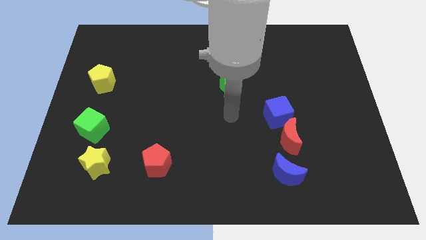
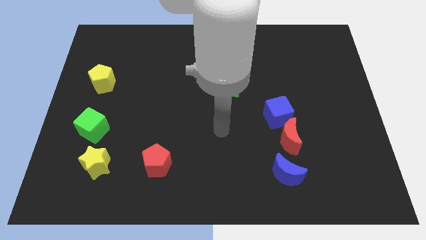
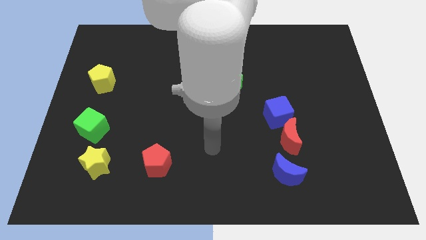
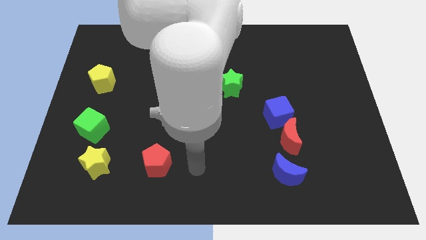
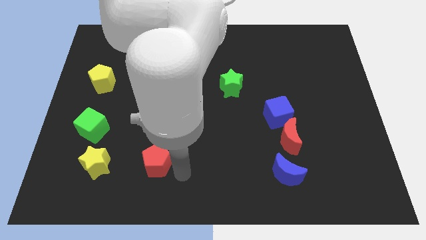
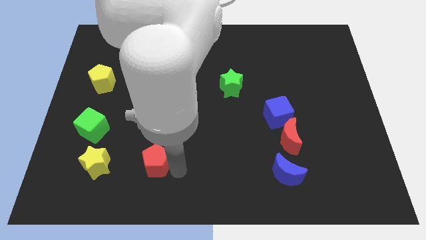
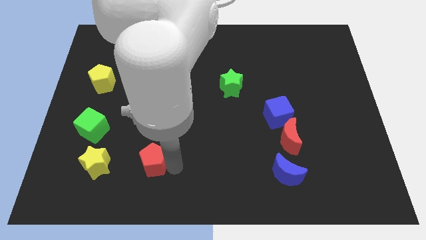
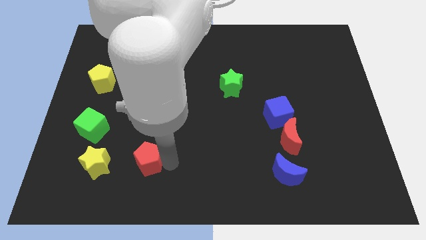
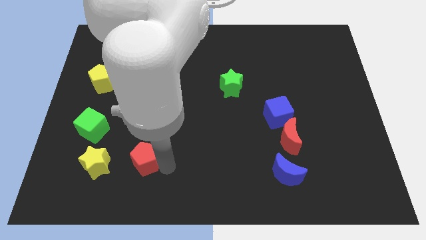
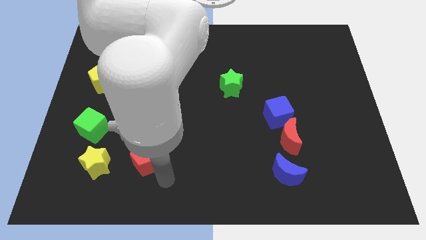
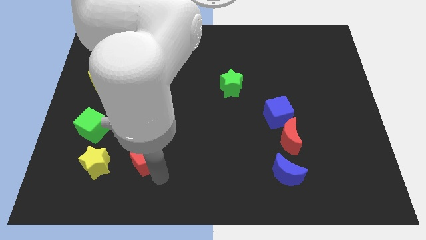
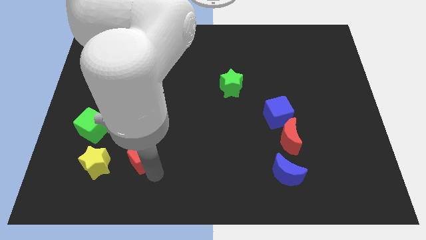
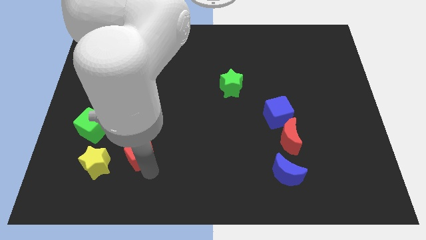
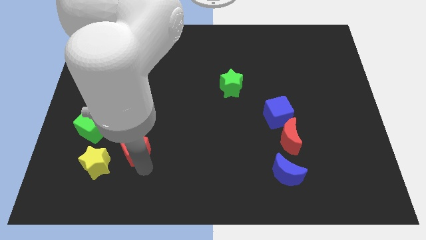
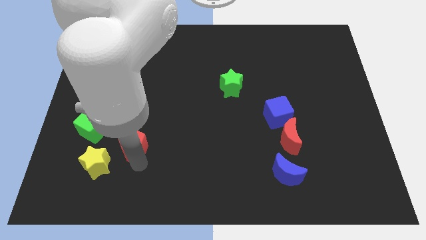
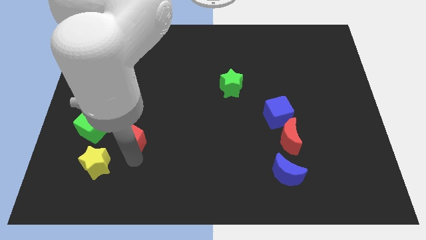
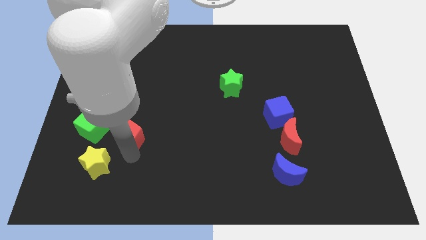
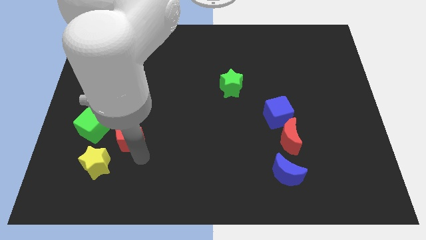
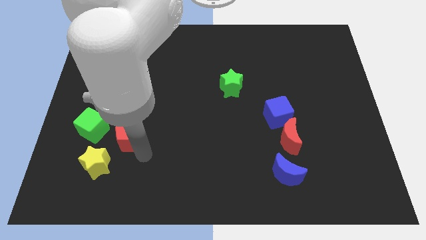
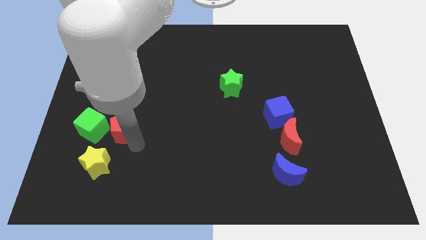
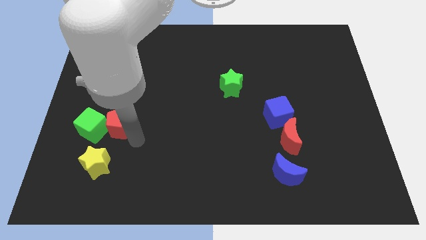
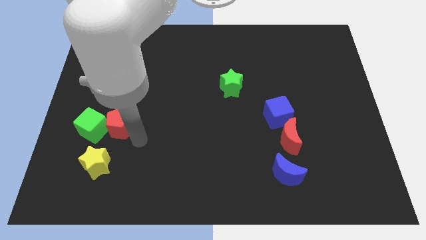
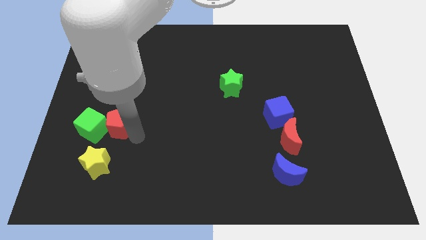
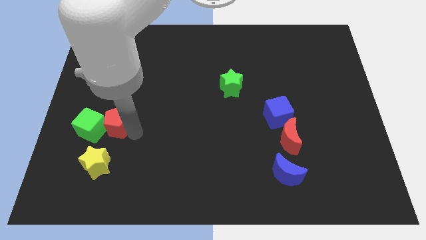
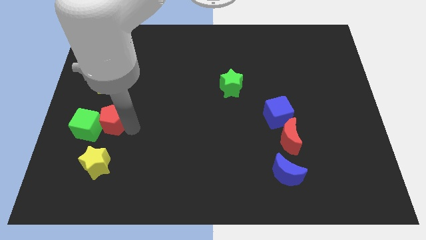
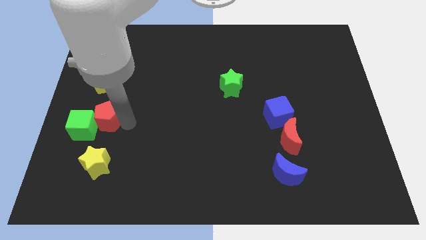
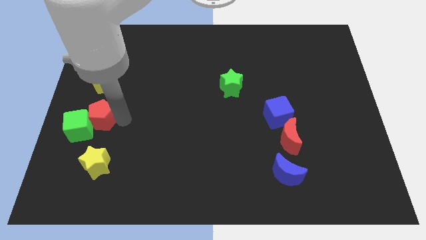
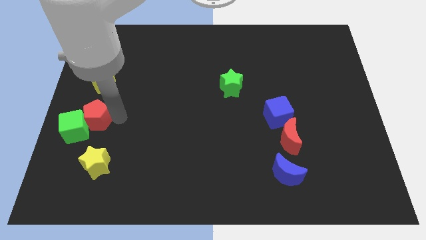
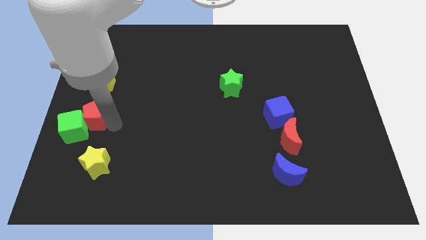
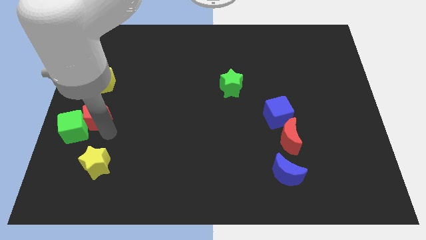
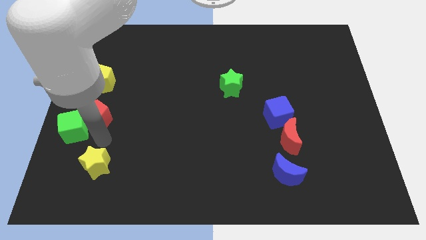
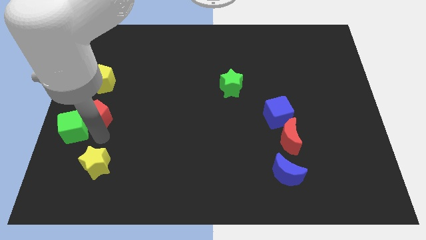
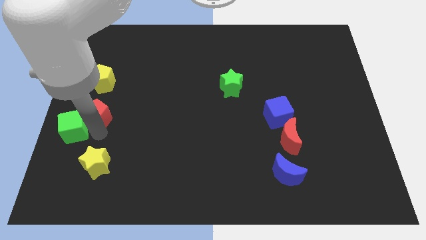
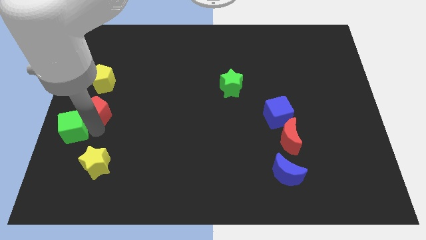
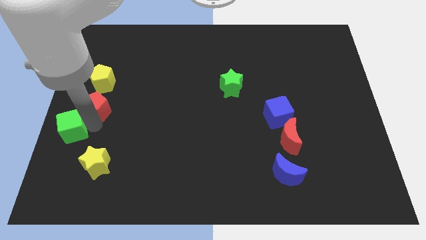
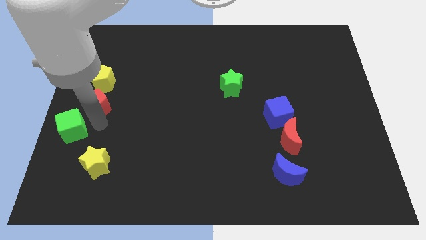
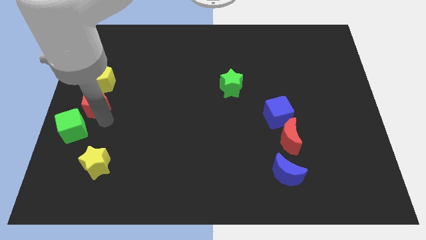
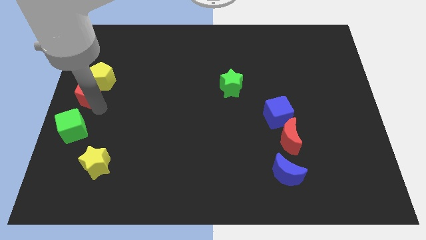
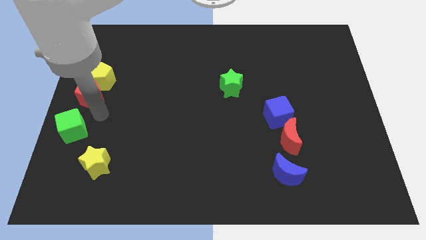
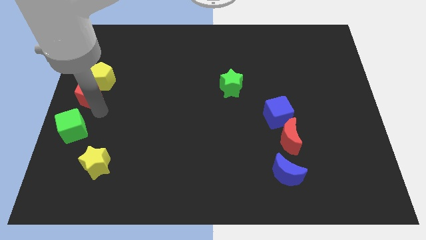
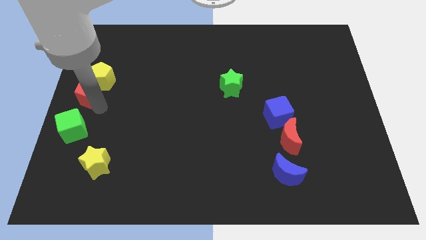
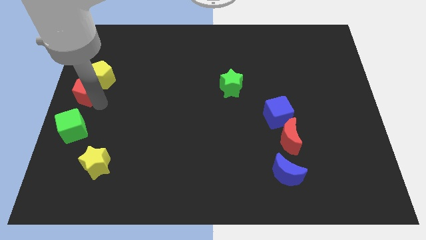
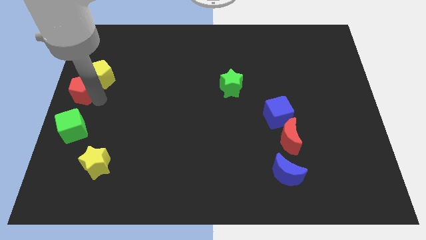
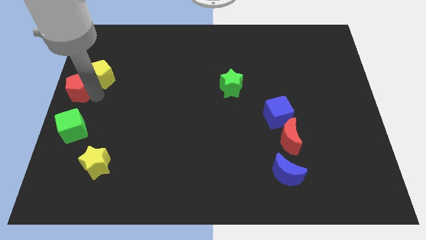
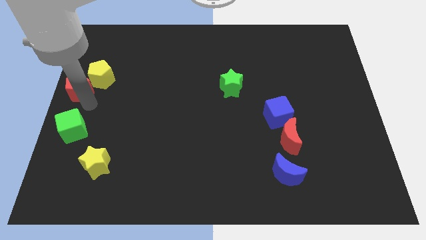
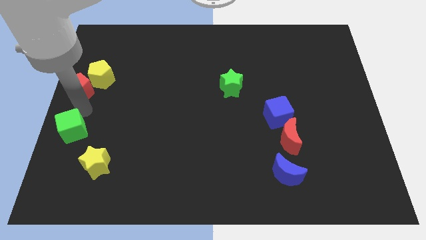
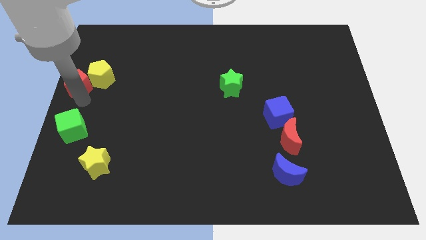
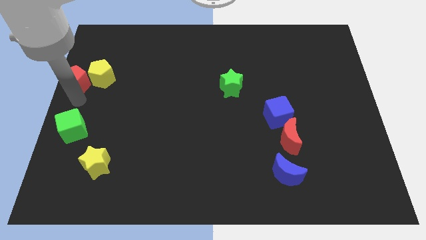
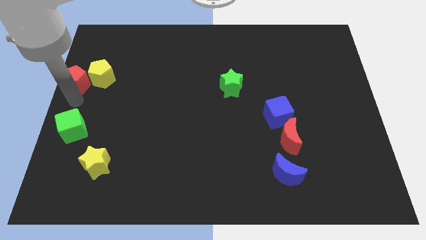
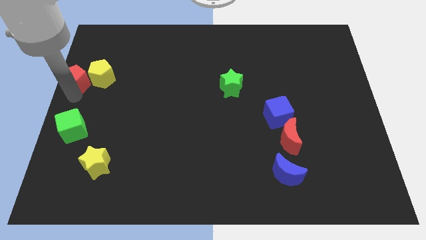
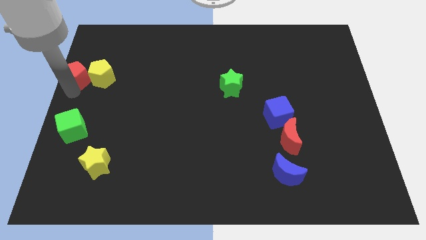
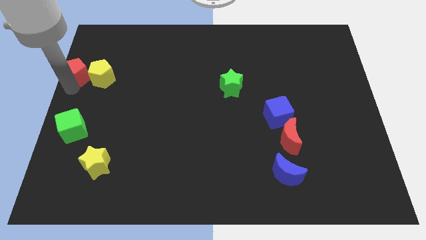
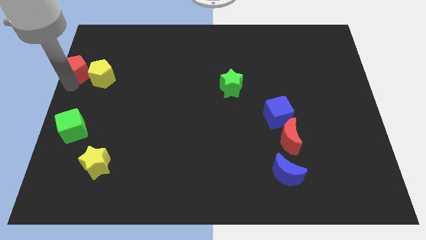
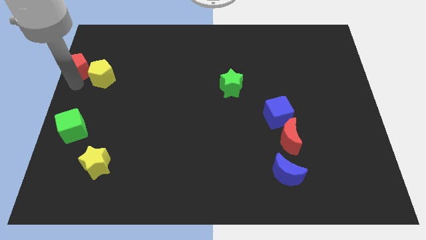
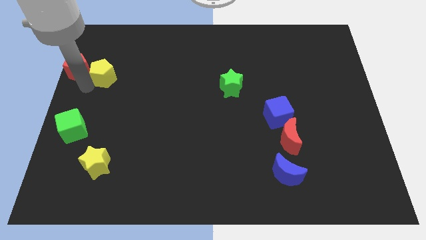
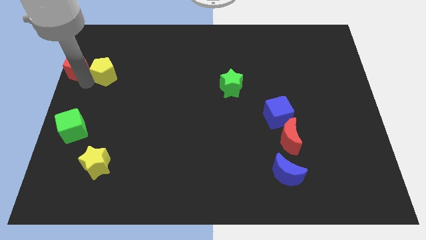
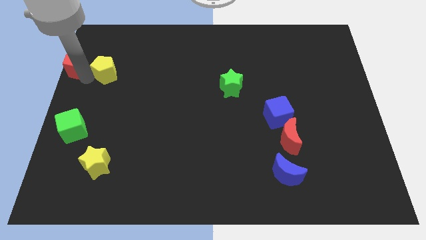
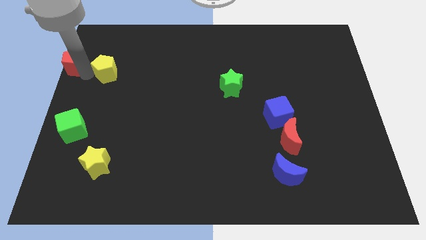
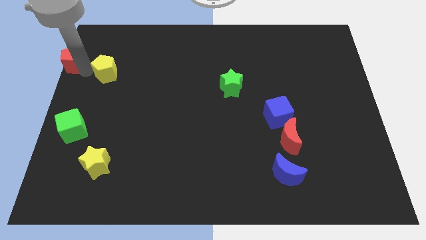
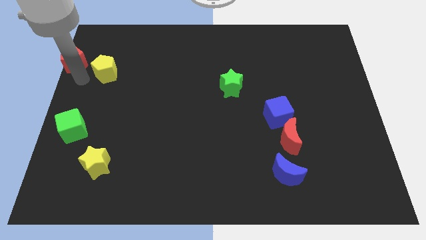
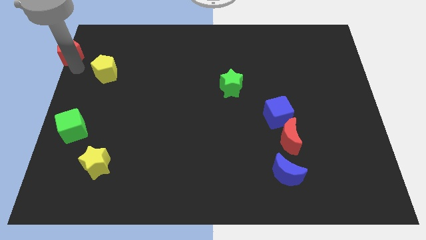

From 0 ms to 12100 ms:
slide the red pentagon to the top left of the board
